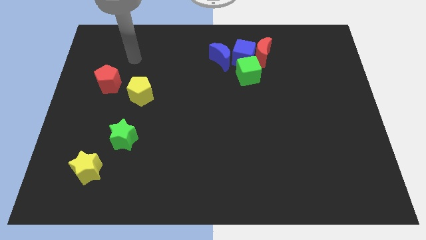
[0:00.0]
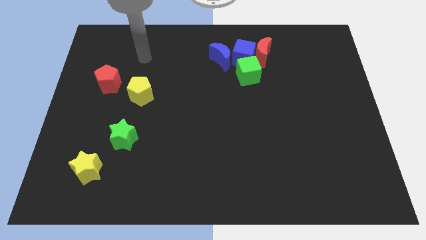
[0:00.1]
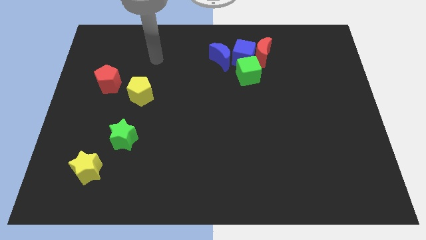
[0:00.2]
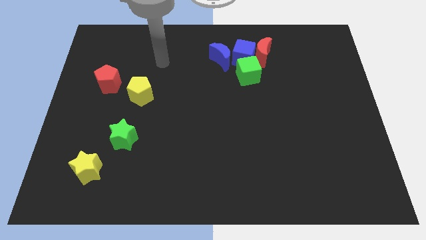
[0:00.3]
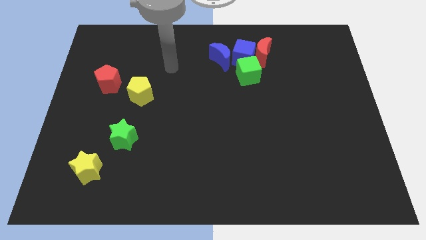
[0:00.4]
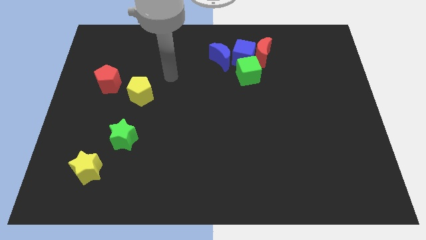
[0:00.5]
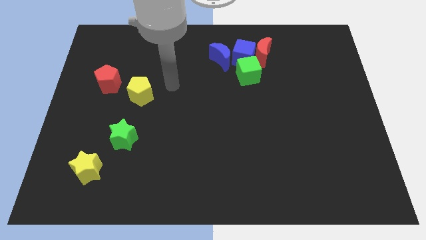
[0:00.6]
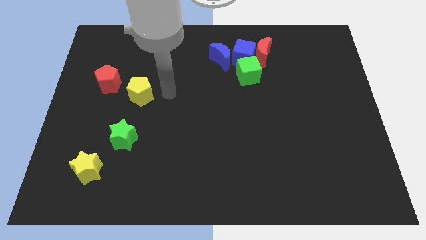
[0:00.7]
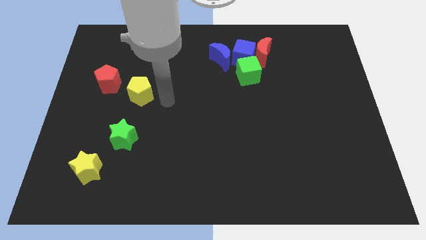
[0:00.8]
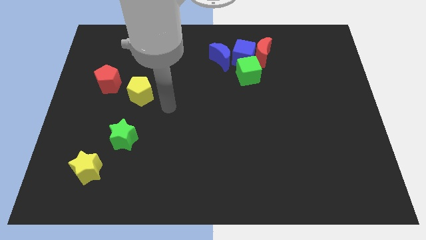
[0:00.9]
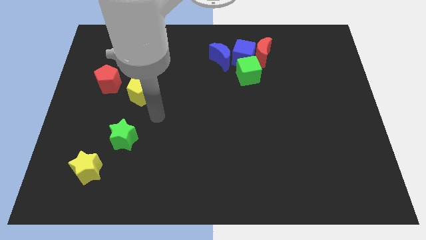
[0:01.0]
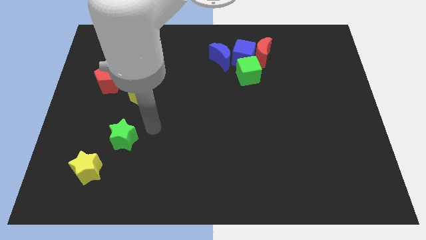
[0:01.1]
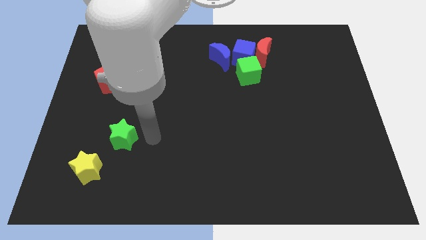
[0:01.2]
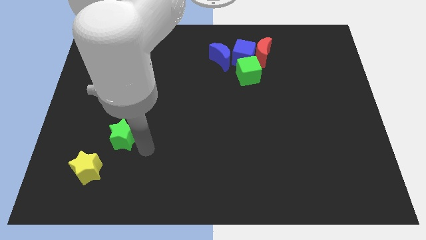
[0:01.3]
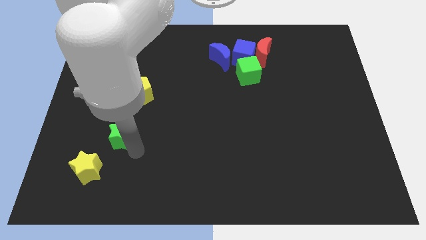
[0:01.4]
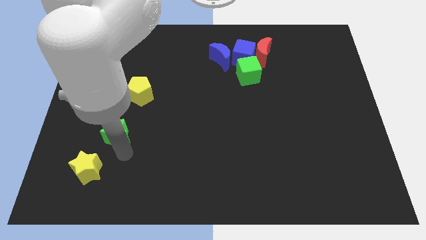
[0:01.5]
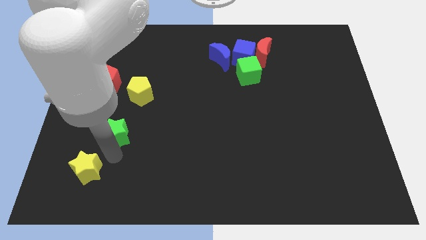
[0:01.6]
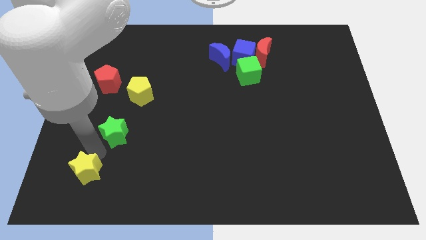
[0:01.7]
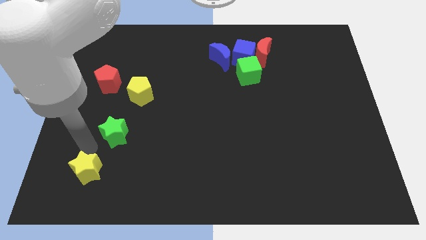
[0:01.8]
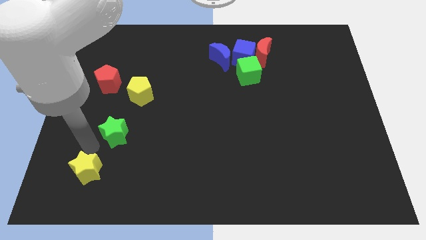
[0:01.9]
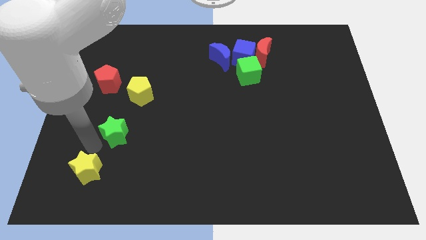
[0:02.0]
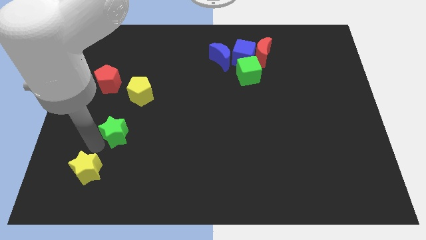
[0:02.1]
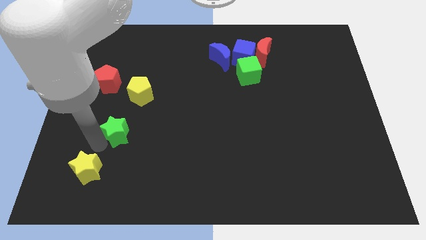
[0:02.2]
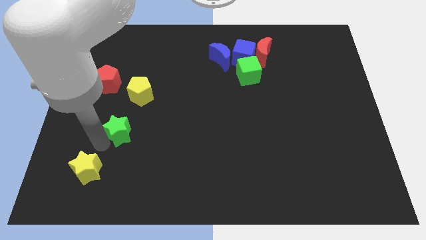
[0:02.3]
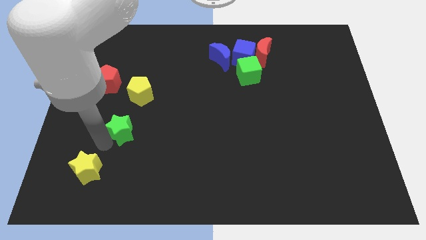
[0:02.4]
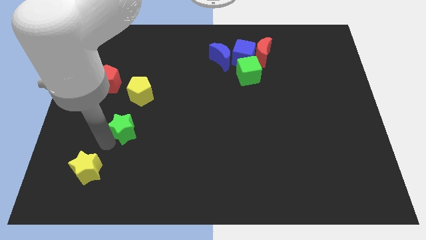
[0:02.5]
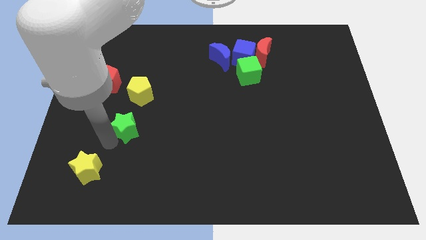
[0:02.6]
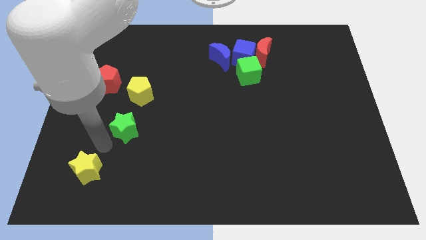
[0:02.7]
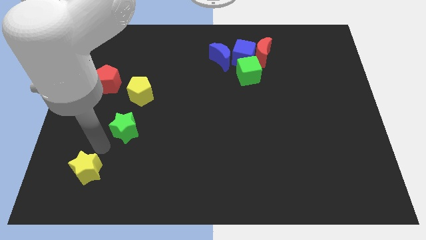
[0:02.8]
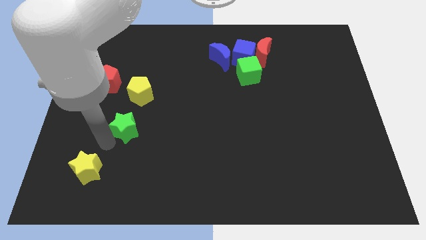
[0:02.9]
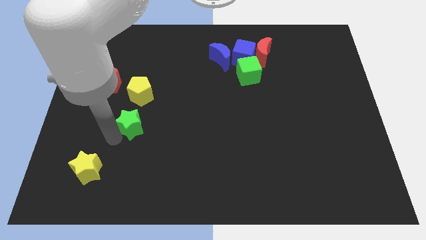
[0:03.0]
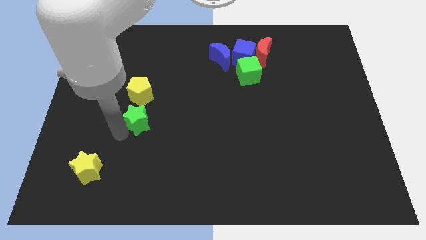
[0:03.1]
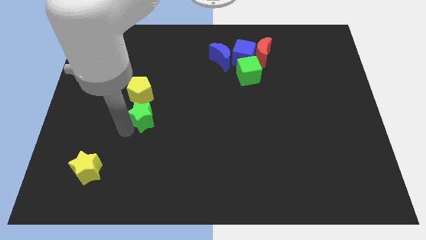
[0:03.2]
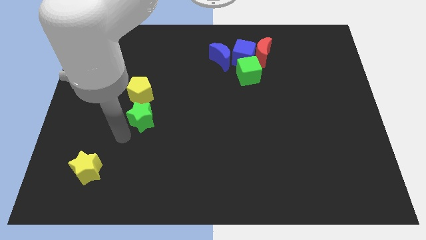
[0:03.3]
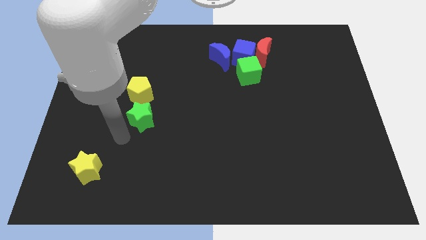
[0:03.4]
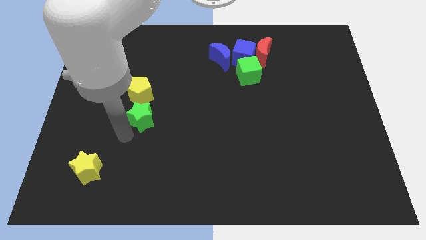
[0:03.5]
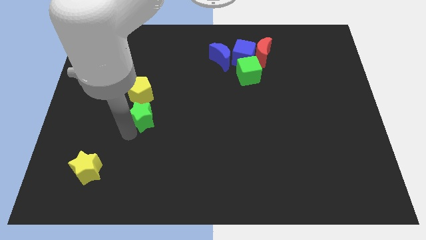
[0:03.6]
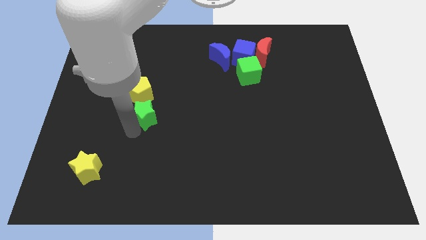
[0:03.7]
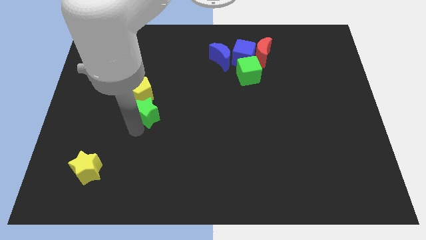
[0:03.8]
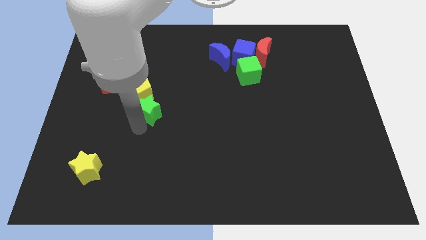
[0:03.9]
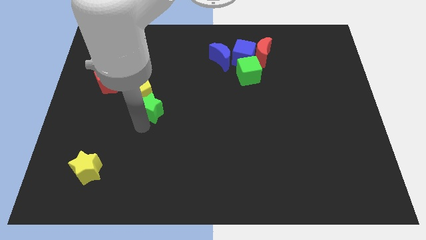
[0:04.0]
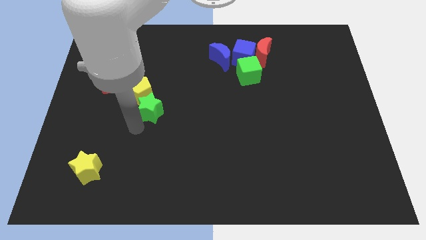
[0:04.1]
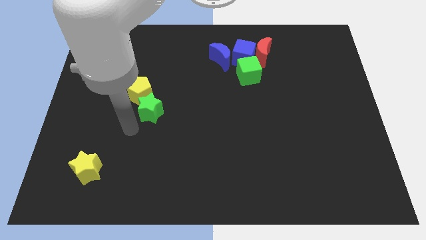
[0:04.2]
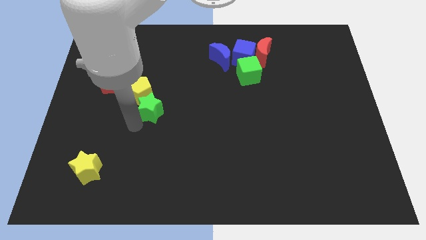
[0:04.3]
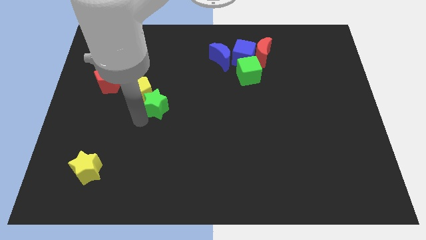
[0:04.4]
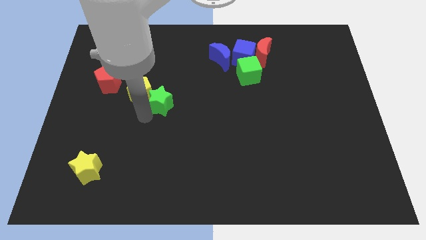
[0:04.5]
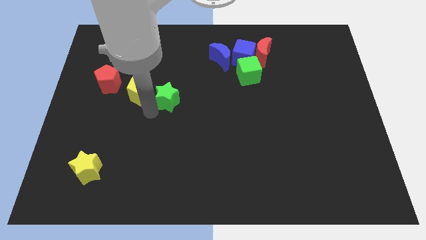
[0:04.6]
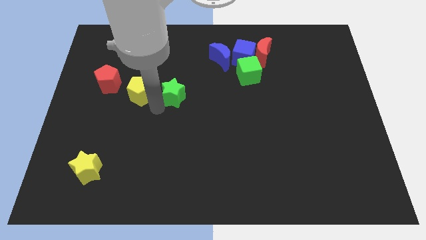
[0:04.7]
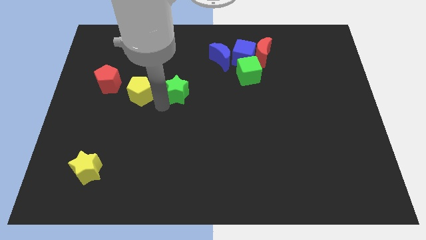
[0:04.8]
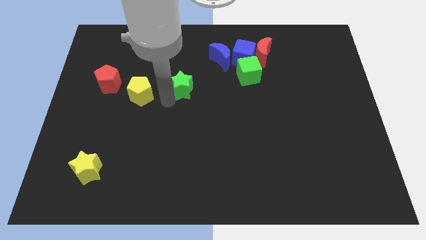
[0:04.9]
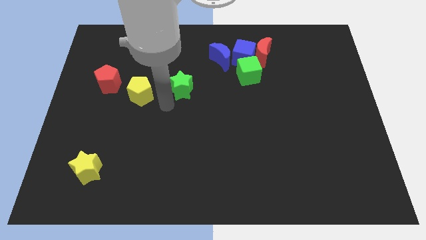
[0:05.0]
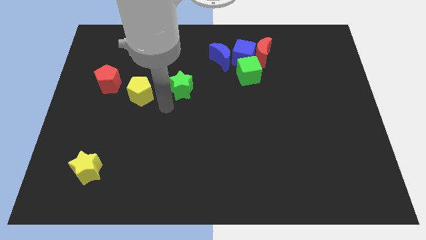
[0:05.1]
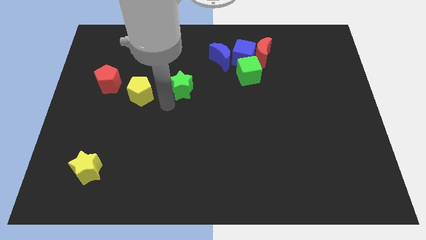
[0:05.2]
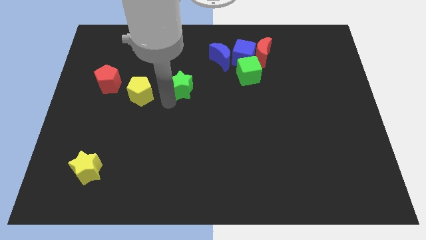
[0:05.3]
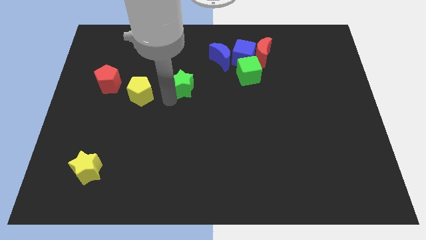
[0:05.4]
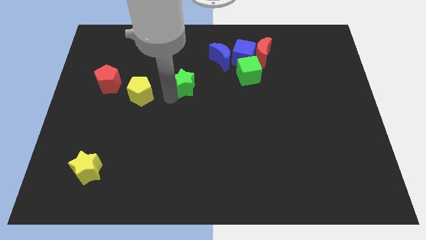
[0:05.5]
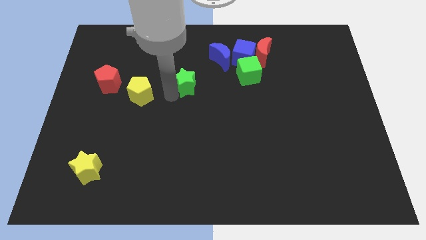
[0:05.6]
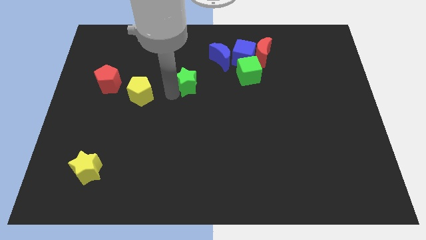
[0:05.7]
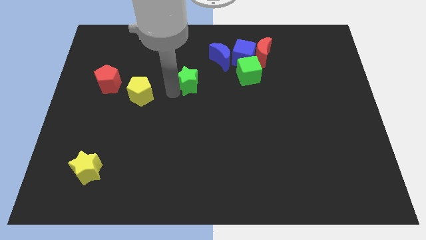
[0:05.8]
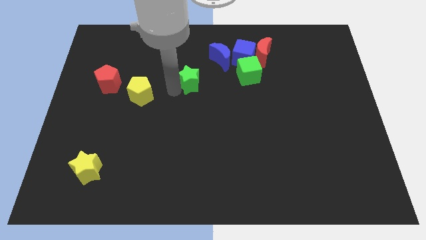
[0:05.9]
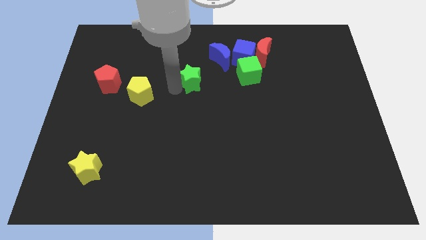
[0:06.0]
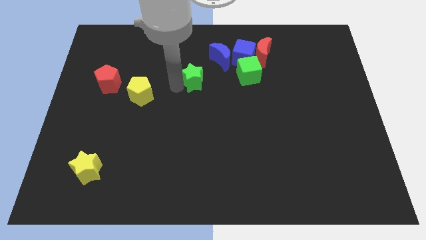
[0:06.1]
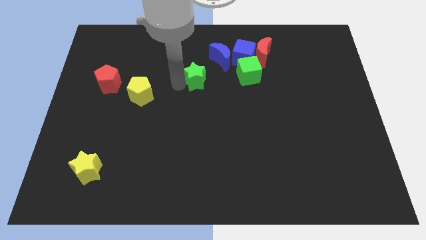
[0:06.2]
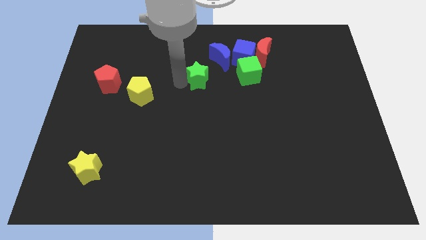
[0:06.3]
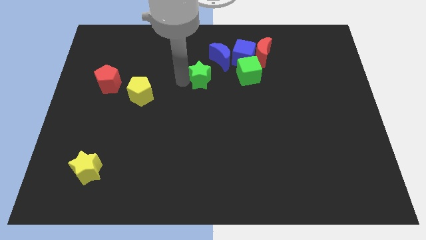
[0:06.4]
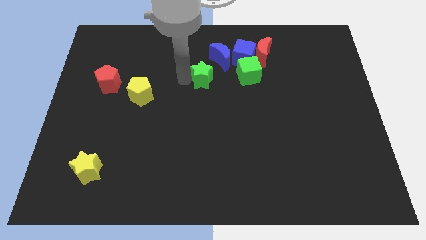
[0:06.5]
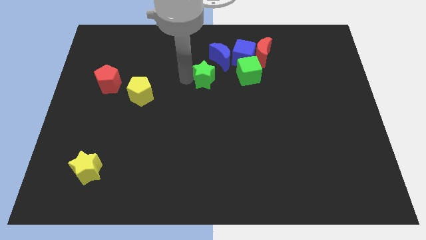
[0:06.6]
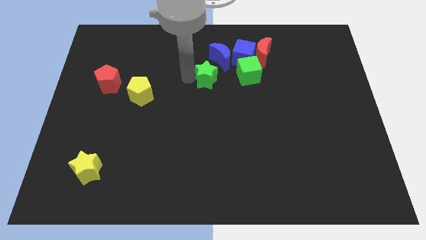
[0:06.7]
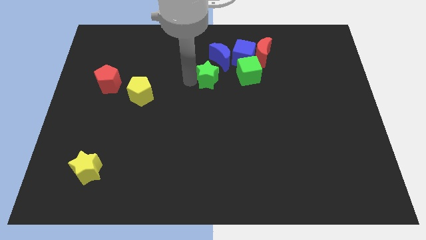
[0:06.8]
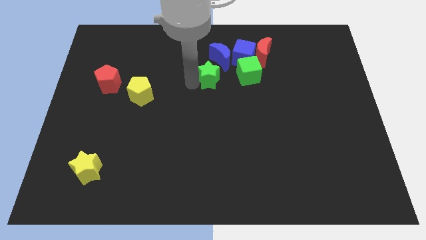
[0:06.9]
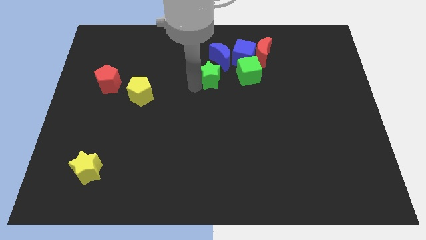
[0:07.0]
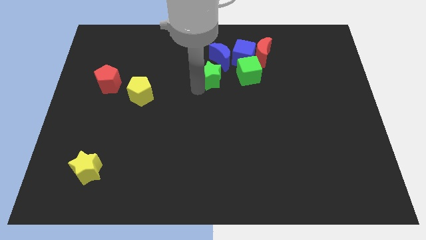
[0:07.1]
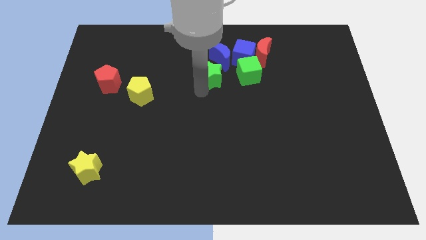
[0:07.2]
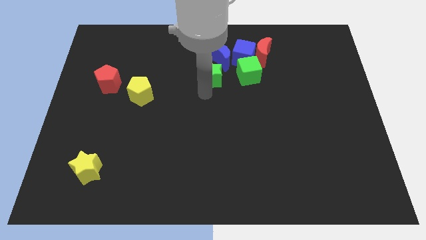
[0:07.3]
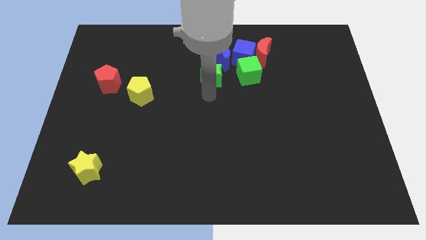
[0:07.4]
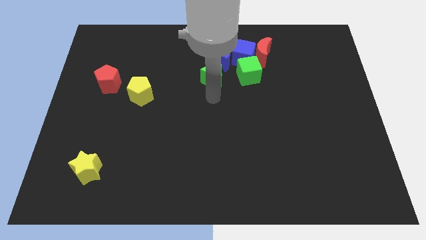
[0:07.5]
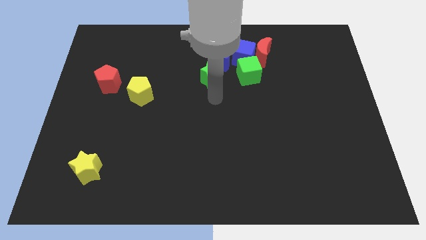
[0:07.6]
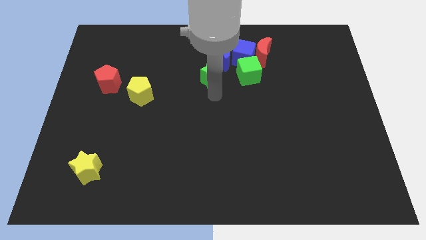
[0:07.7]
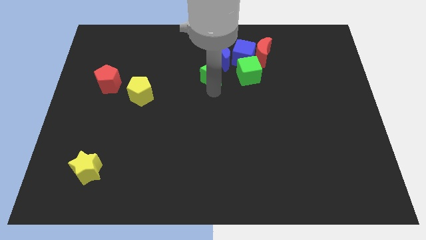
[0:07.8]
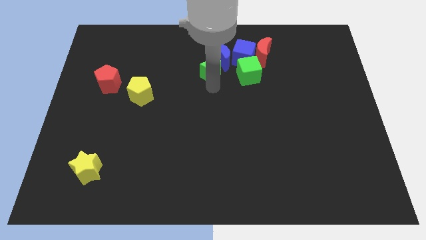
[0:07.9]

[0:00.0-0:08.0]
move the green star to the blue moon
